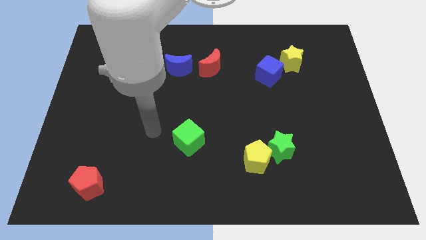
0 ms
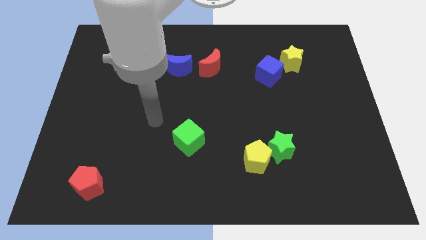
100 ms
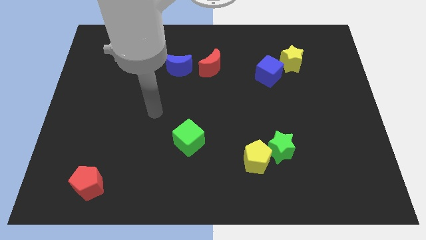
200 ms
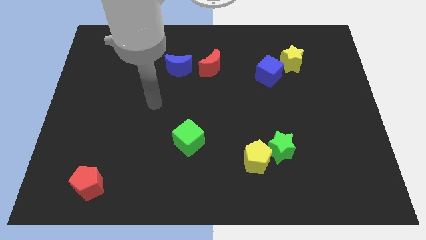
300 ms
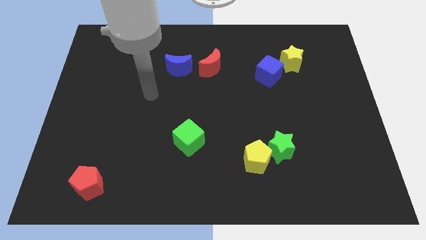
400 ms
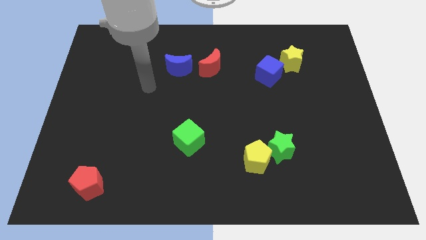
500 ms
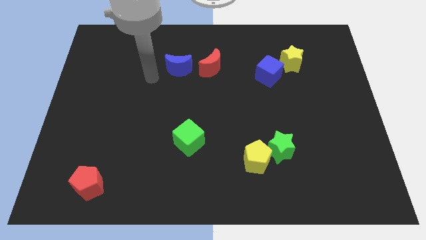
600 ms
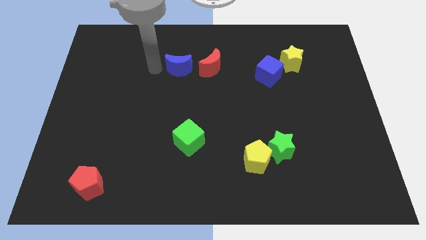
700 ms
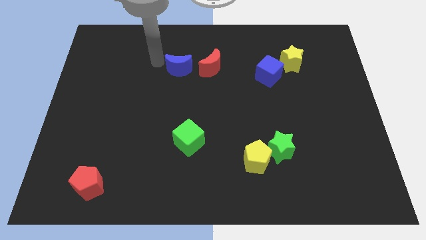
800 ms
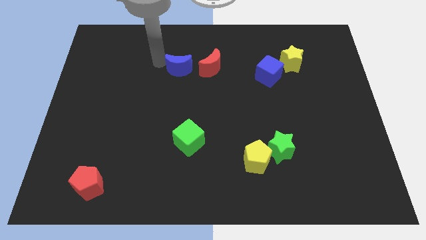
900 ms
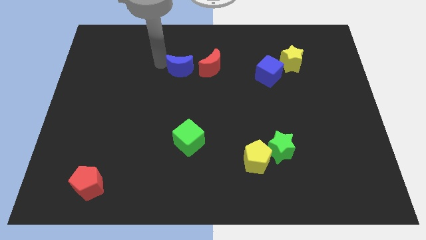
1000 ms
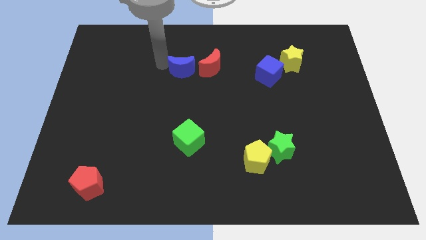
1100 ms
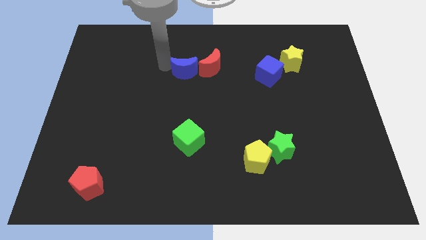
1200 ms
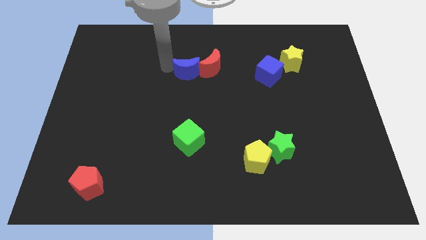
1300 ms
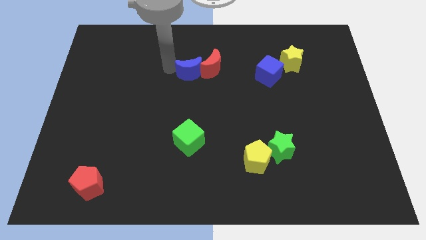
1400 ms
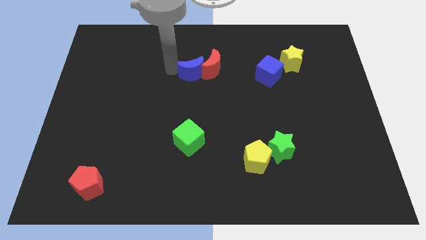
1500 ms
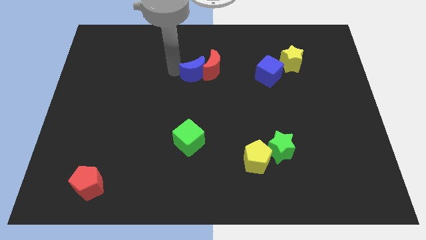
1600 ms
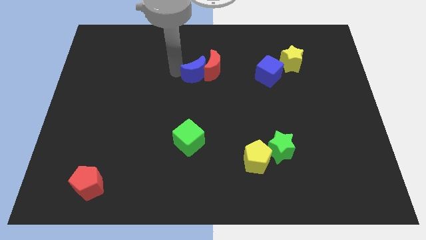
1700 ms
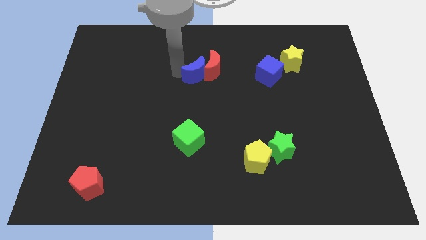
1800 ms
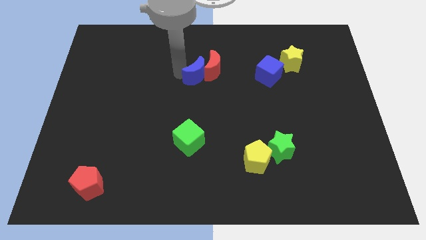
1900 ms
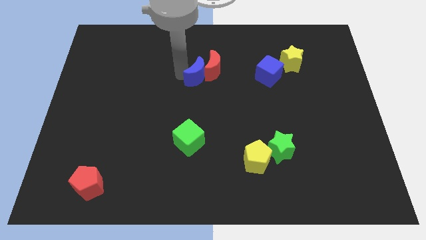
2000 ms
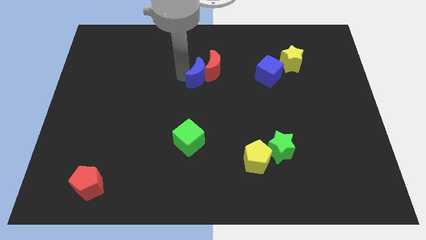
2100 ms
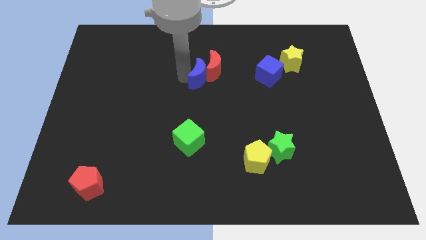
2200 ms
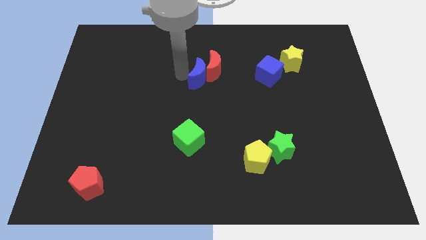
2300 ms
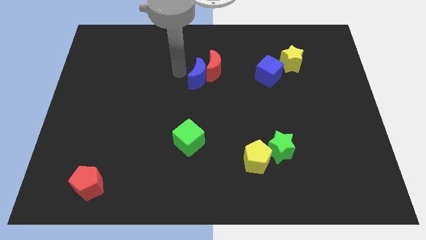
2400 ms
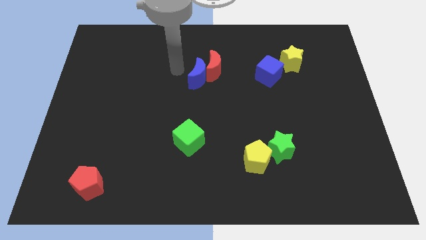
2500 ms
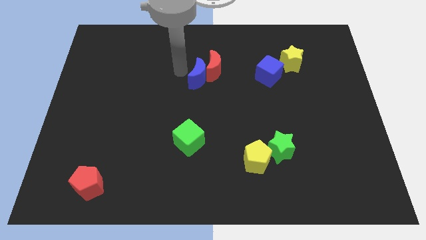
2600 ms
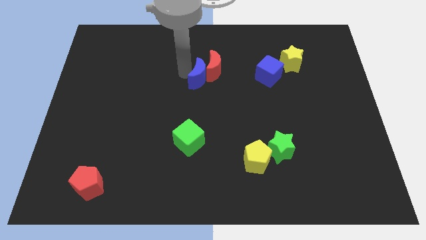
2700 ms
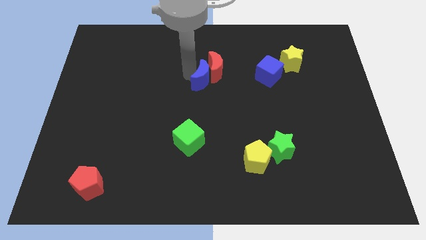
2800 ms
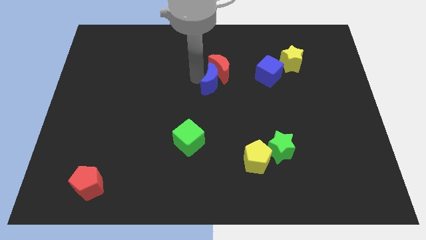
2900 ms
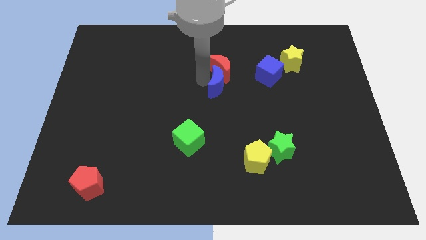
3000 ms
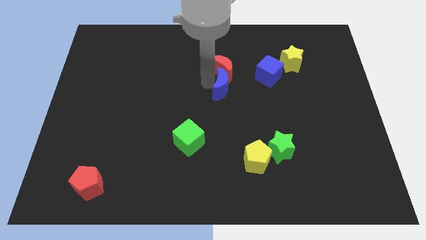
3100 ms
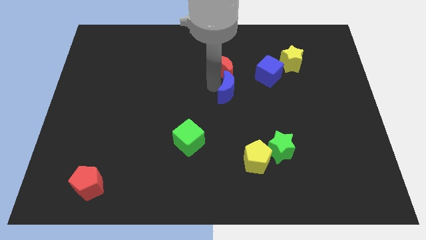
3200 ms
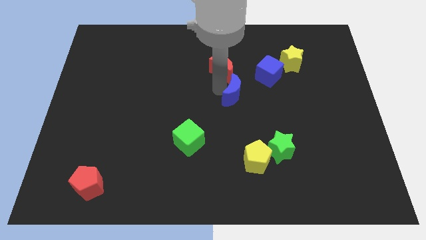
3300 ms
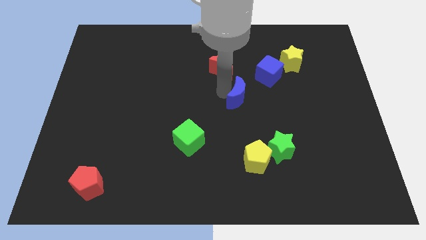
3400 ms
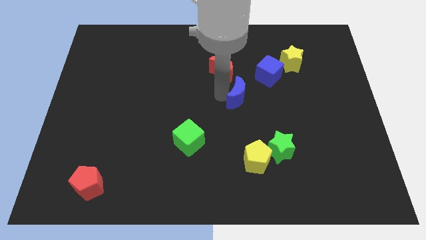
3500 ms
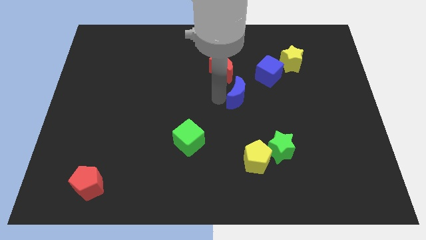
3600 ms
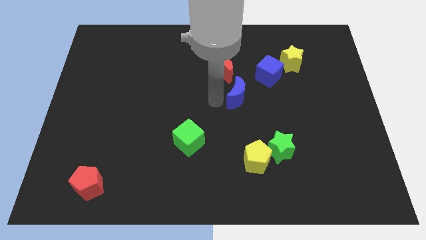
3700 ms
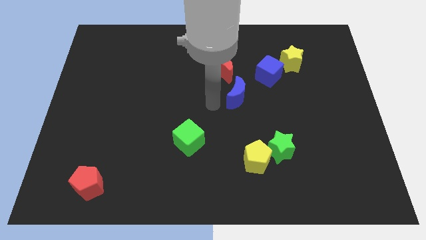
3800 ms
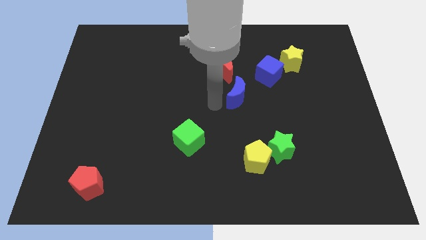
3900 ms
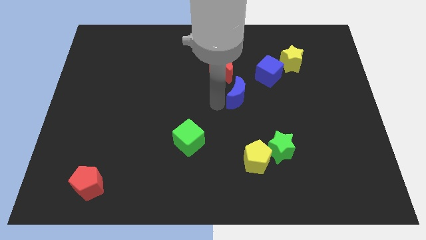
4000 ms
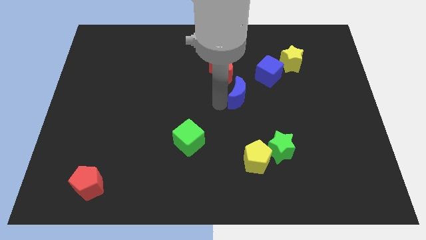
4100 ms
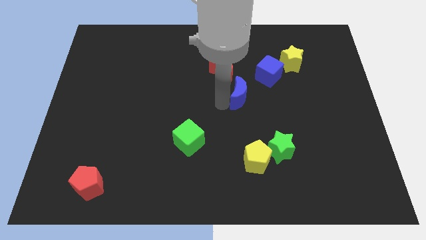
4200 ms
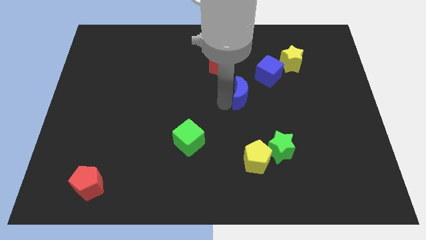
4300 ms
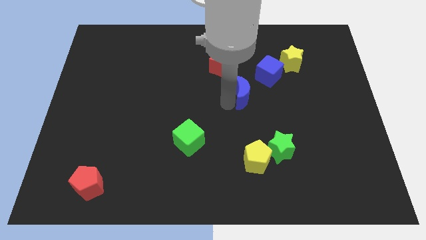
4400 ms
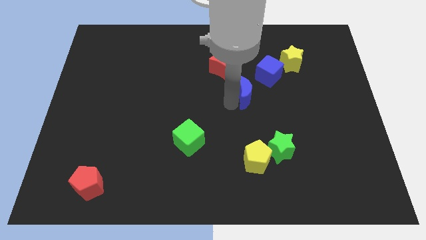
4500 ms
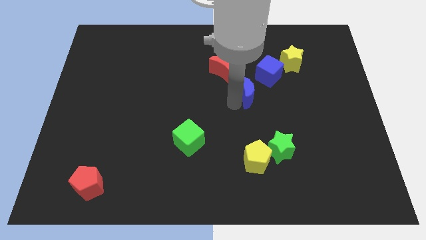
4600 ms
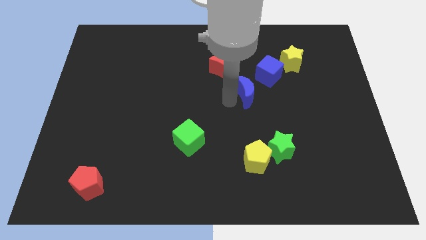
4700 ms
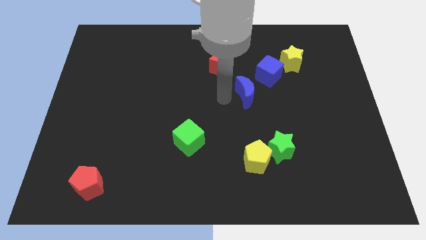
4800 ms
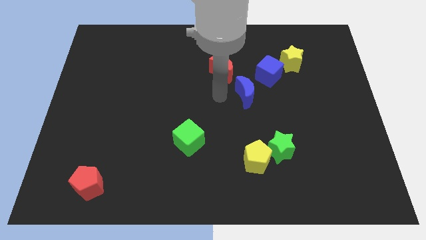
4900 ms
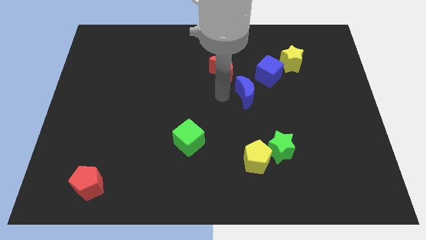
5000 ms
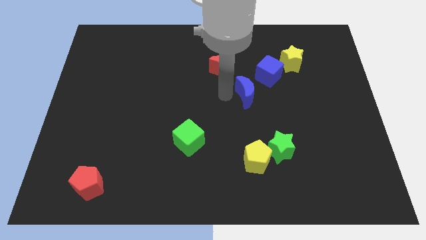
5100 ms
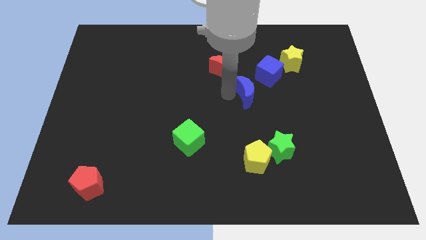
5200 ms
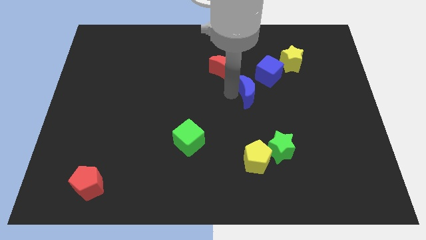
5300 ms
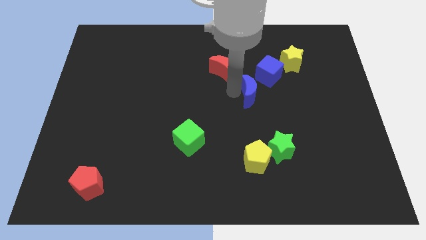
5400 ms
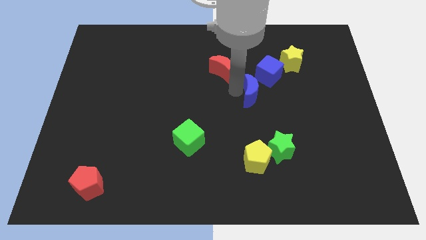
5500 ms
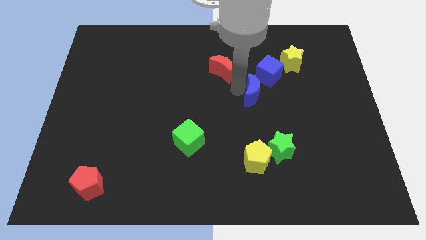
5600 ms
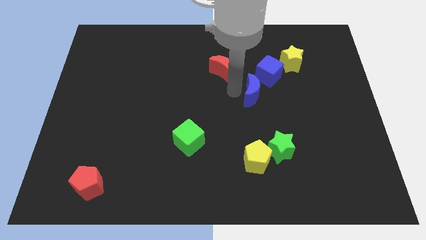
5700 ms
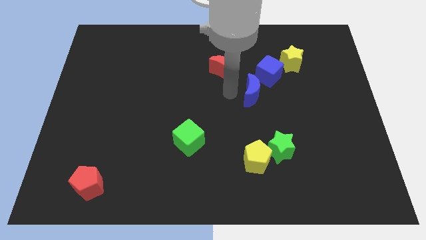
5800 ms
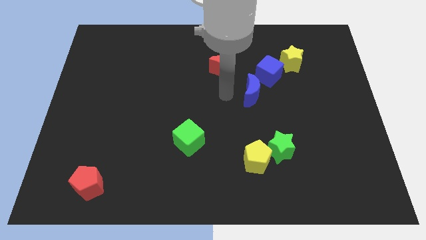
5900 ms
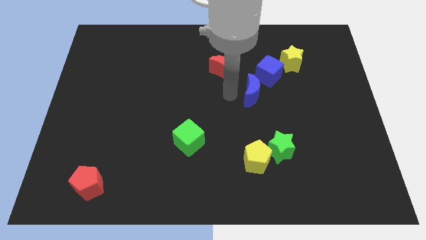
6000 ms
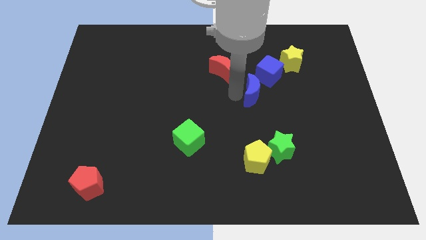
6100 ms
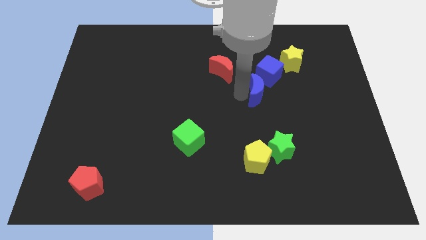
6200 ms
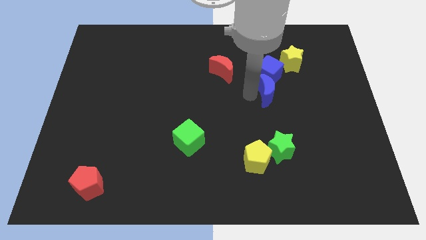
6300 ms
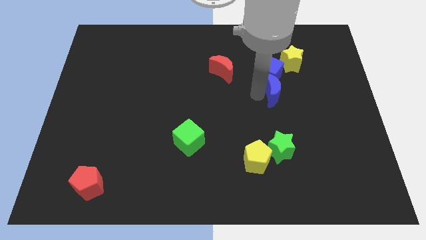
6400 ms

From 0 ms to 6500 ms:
put the blue moon to the bottom right of the blue cube

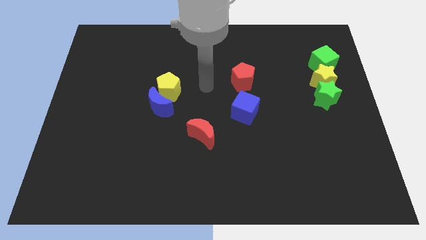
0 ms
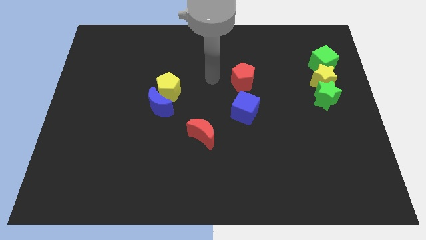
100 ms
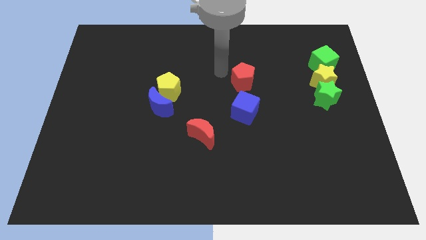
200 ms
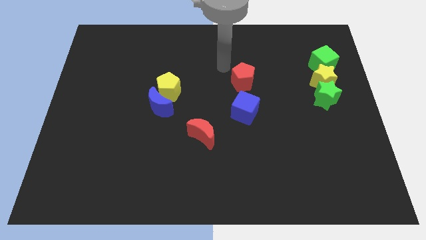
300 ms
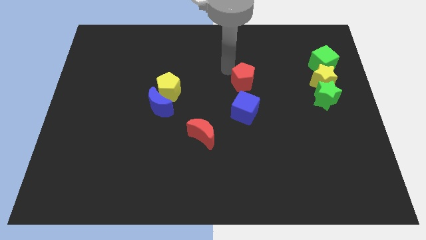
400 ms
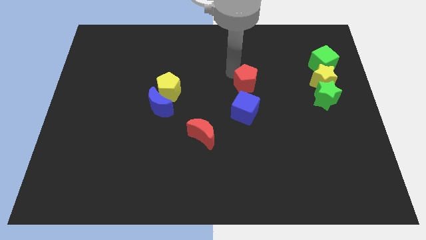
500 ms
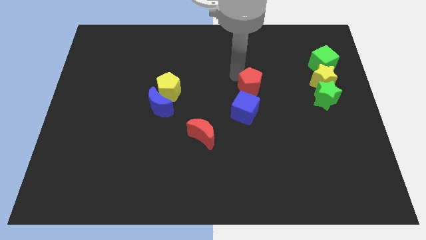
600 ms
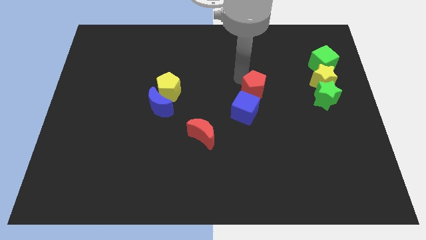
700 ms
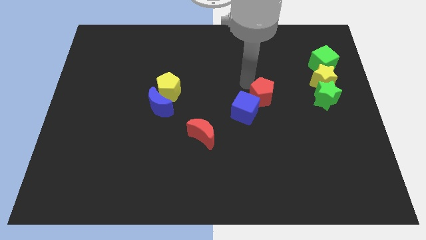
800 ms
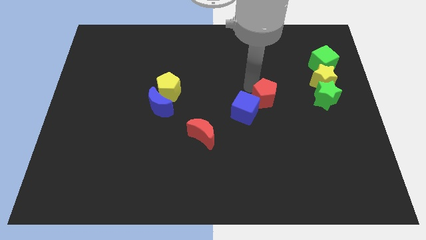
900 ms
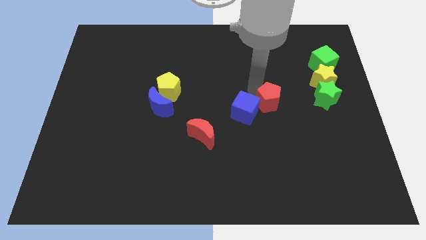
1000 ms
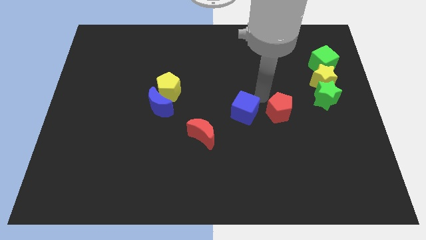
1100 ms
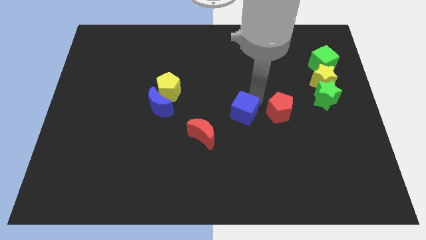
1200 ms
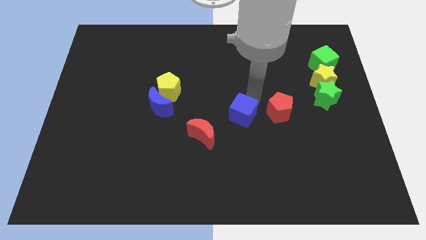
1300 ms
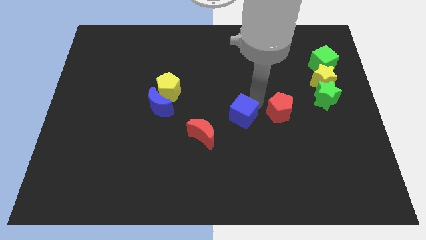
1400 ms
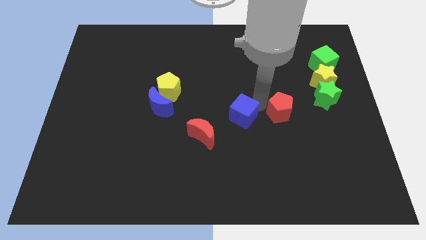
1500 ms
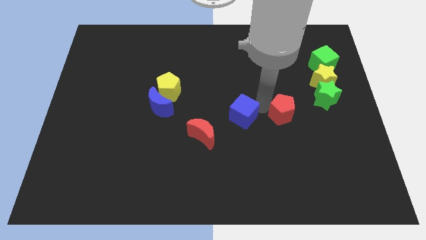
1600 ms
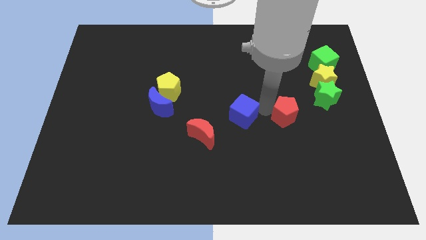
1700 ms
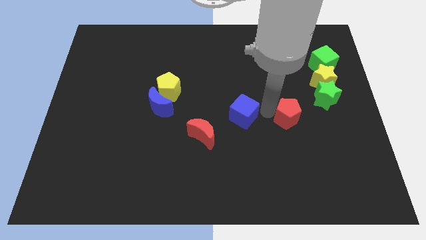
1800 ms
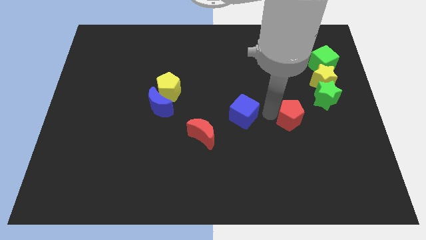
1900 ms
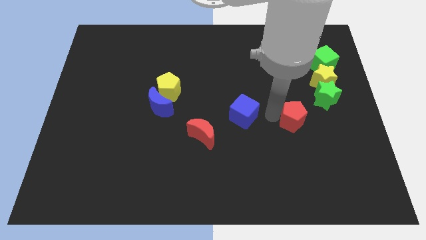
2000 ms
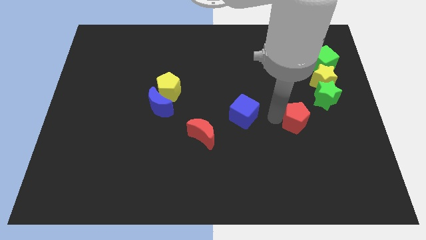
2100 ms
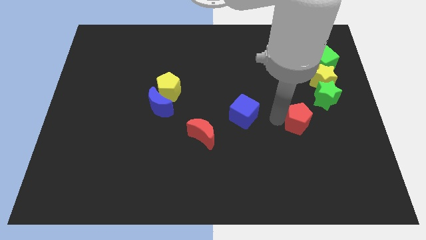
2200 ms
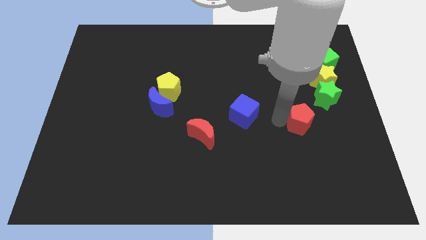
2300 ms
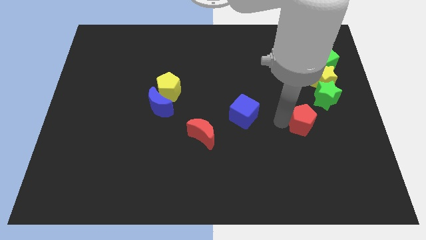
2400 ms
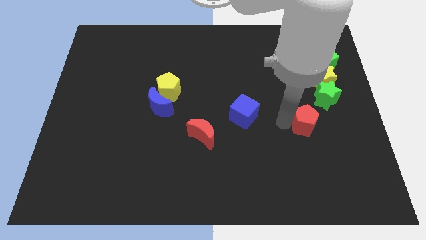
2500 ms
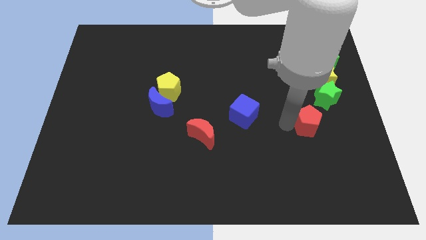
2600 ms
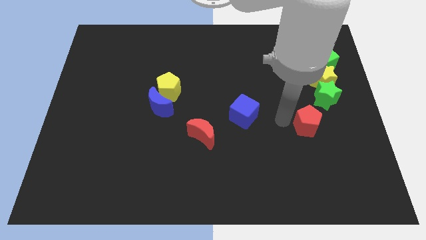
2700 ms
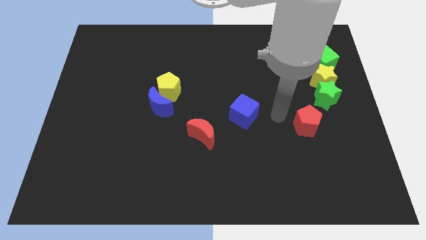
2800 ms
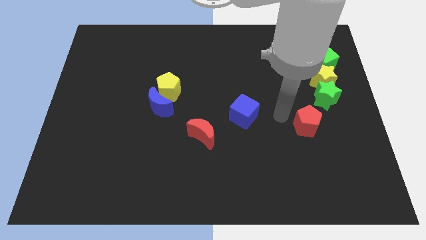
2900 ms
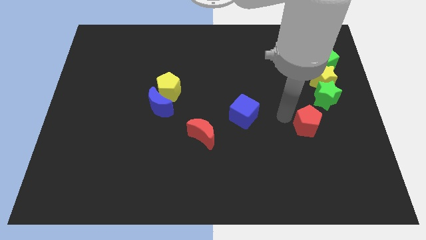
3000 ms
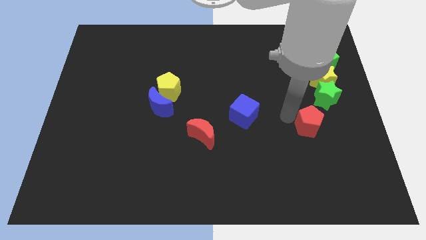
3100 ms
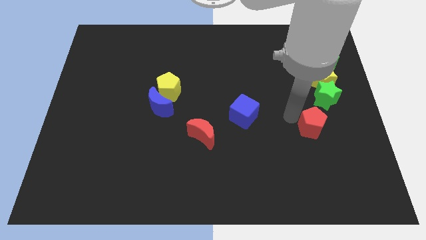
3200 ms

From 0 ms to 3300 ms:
move the red pentagon to the bottom of the green star
